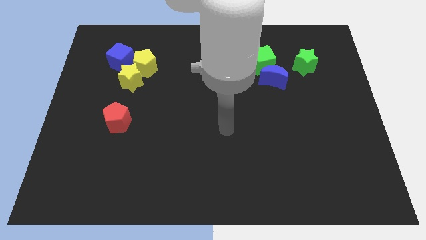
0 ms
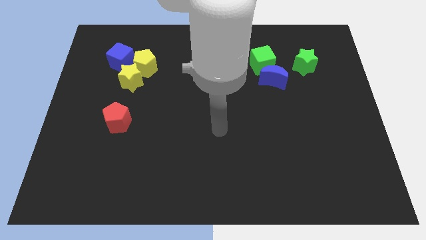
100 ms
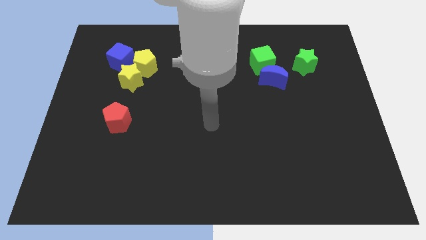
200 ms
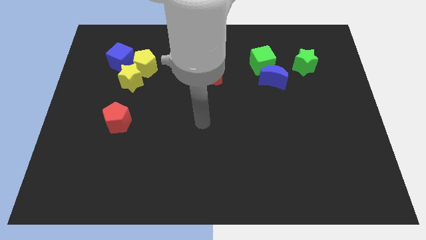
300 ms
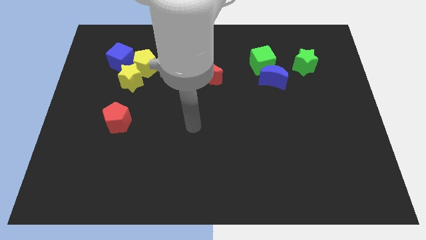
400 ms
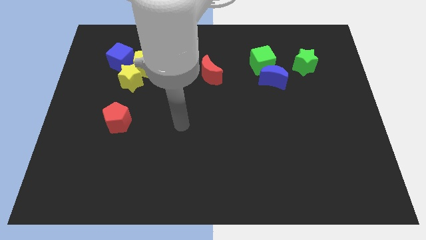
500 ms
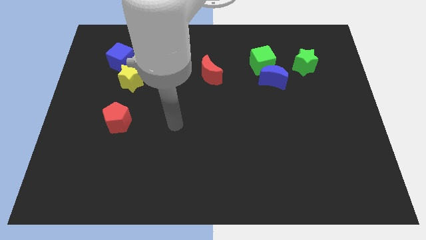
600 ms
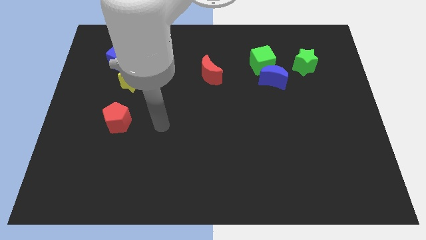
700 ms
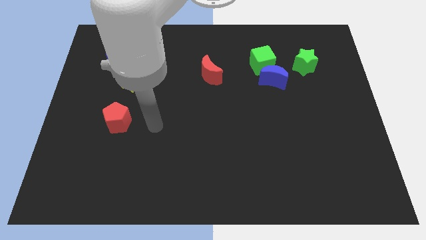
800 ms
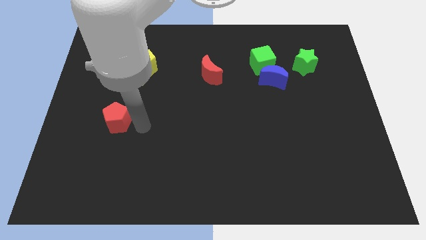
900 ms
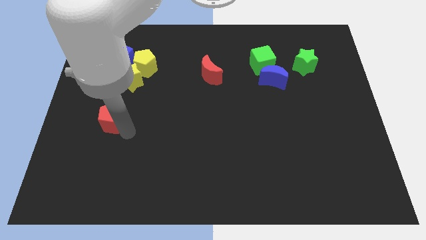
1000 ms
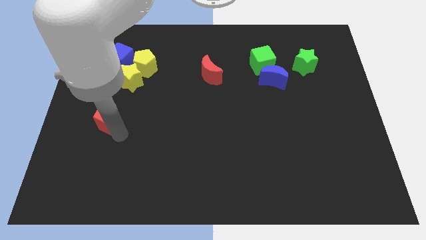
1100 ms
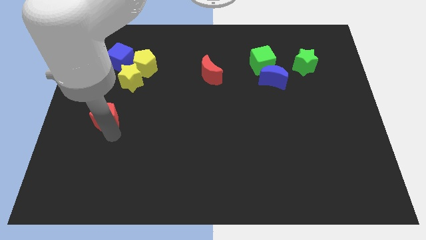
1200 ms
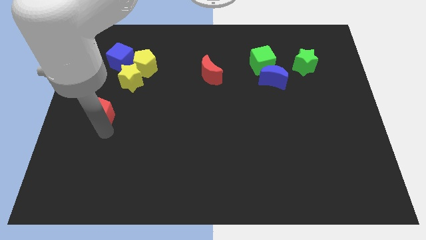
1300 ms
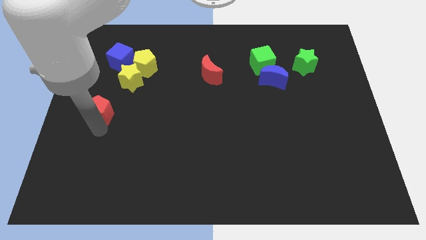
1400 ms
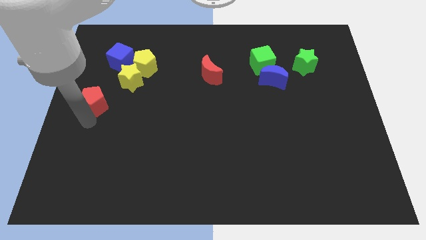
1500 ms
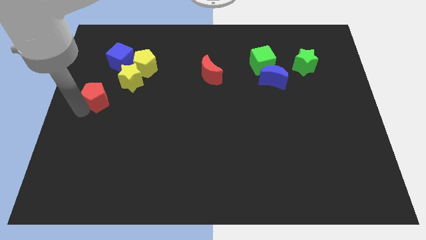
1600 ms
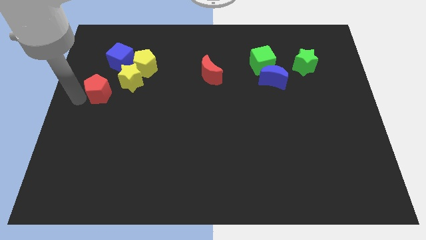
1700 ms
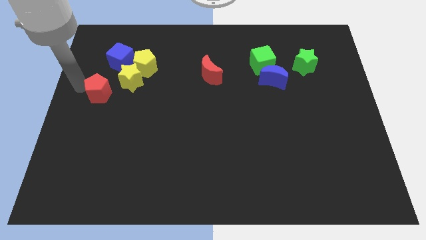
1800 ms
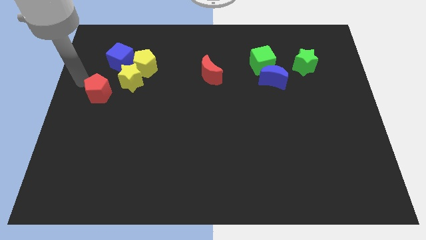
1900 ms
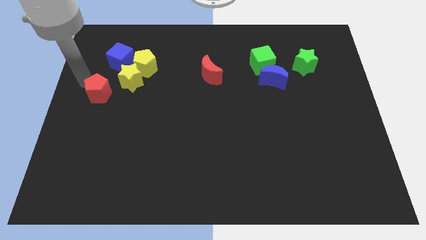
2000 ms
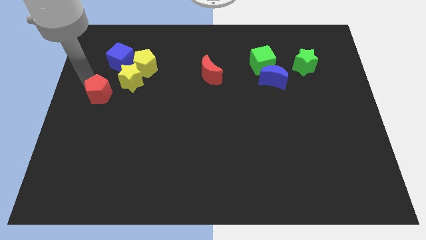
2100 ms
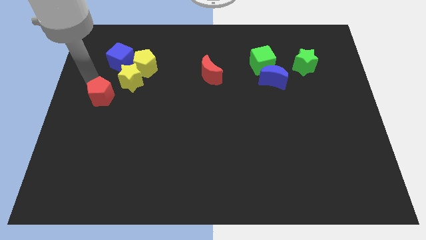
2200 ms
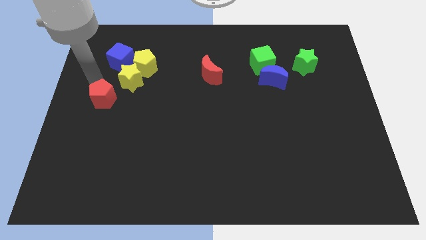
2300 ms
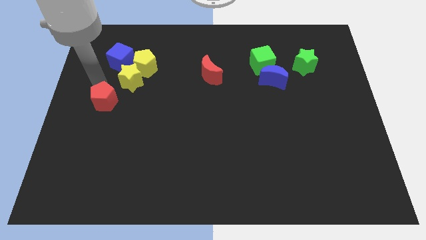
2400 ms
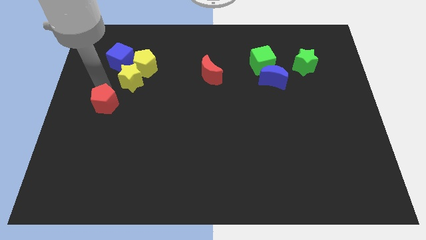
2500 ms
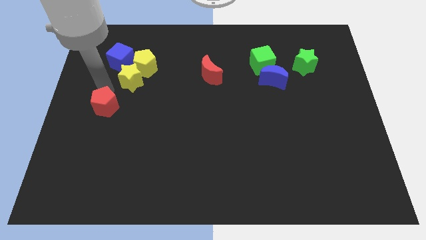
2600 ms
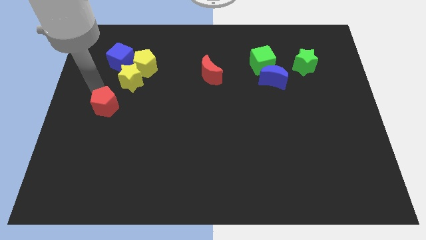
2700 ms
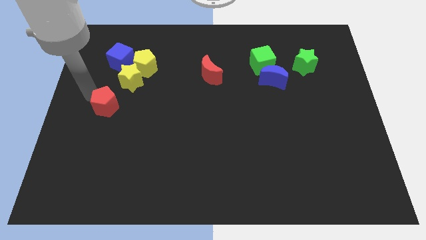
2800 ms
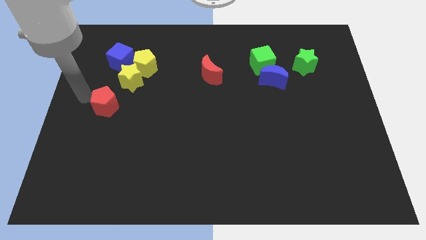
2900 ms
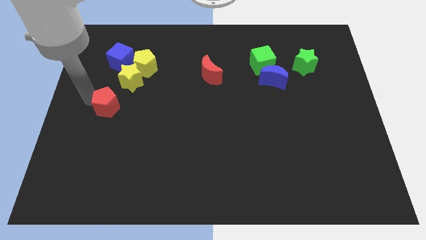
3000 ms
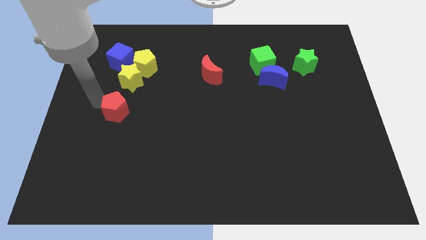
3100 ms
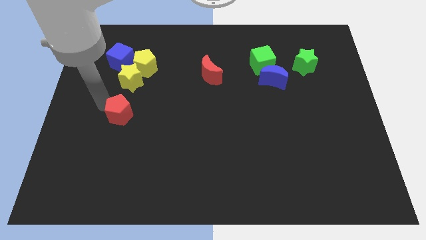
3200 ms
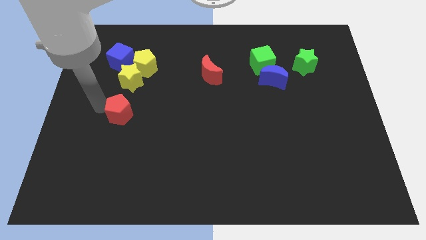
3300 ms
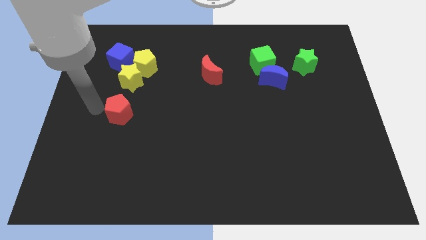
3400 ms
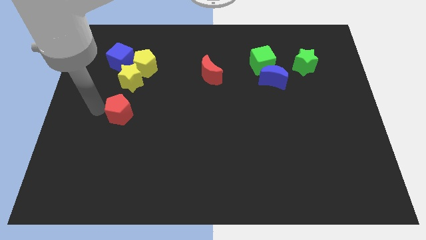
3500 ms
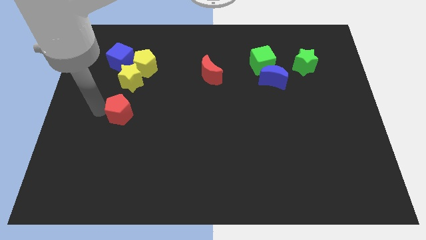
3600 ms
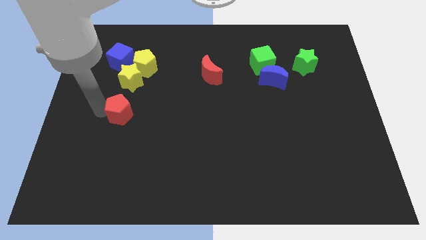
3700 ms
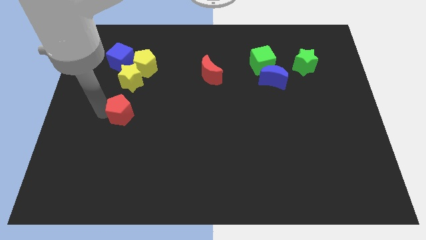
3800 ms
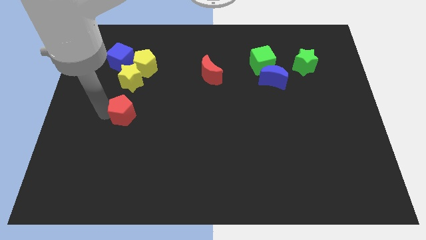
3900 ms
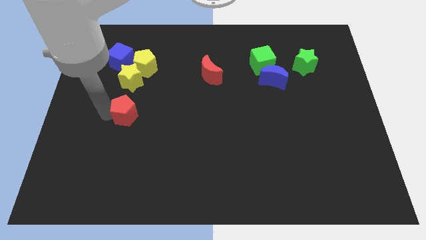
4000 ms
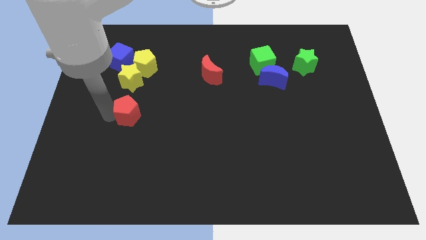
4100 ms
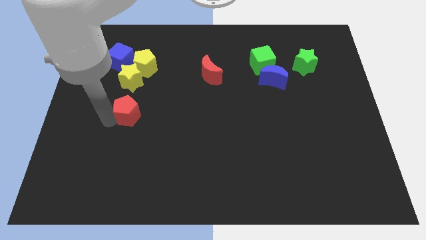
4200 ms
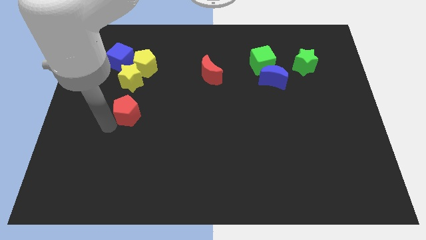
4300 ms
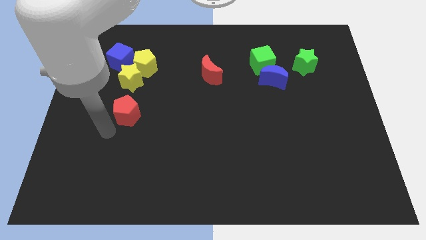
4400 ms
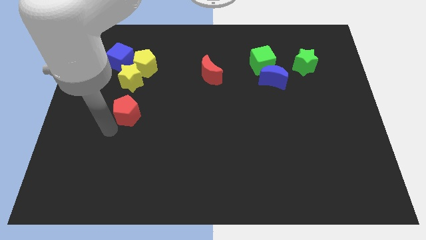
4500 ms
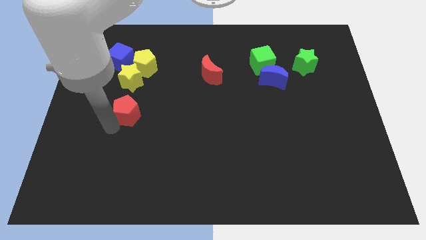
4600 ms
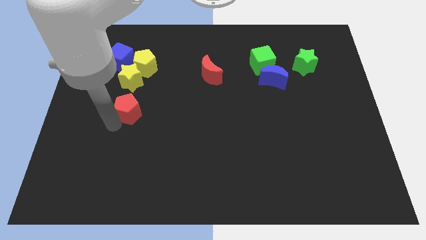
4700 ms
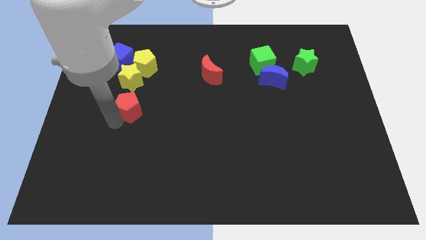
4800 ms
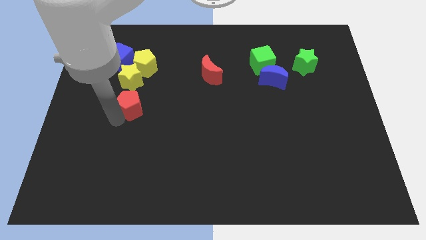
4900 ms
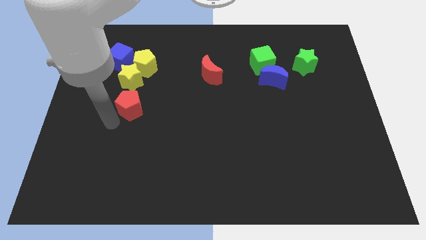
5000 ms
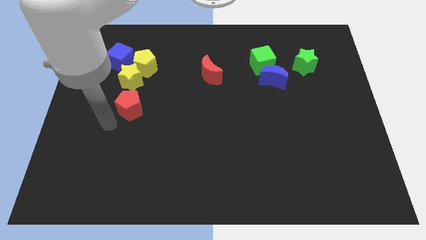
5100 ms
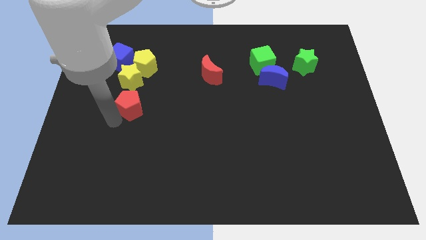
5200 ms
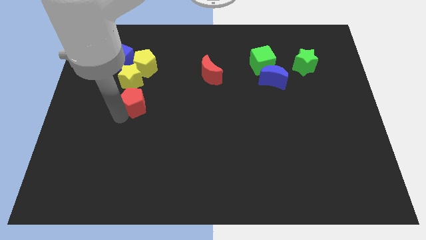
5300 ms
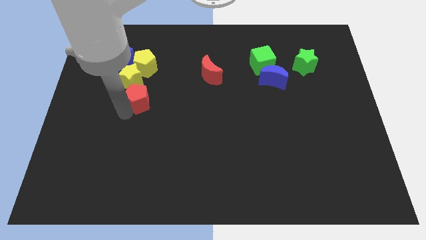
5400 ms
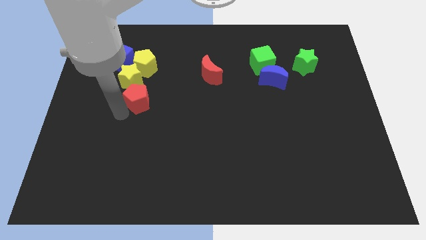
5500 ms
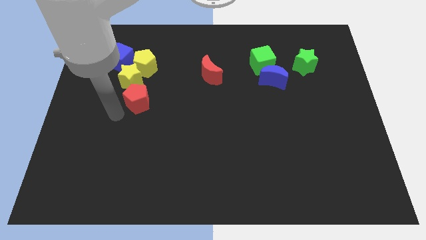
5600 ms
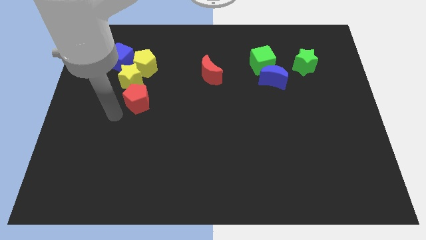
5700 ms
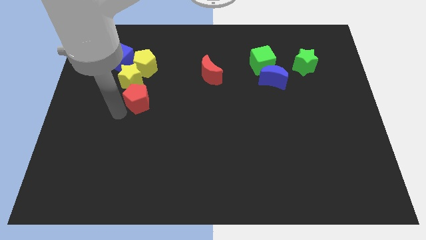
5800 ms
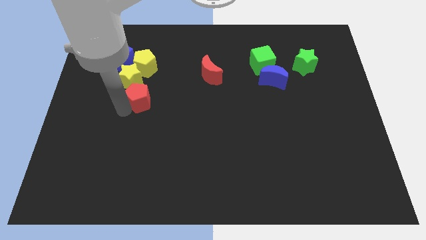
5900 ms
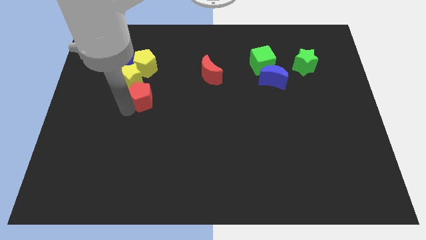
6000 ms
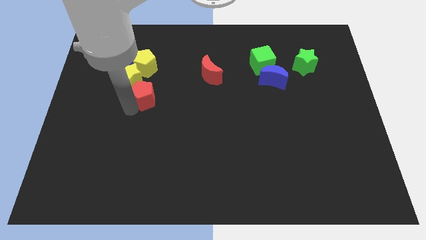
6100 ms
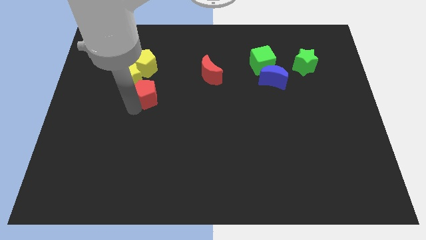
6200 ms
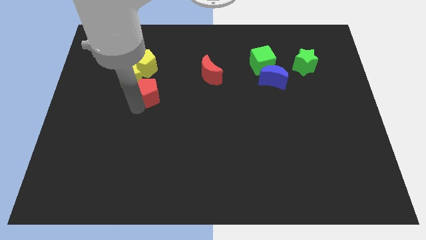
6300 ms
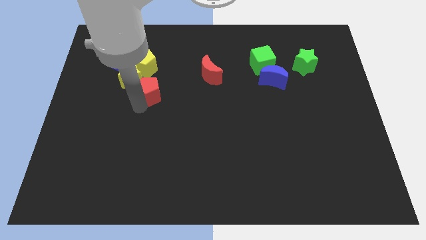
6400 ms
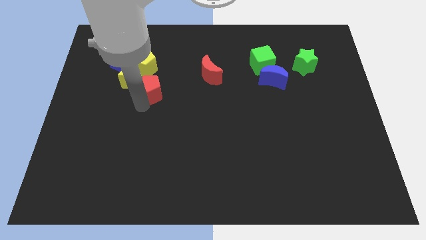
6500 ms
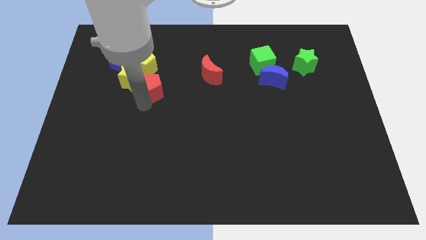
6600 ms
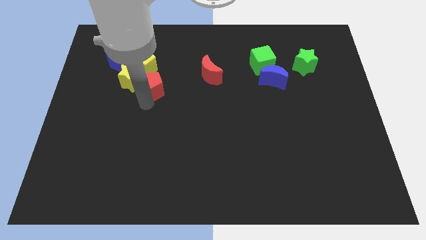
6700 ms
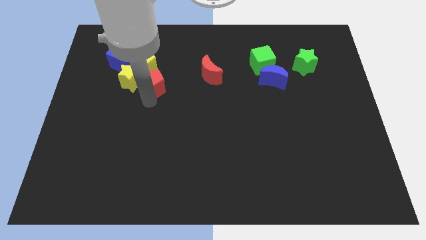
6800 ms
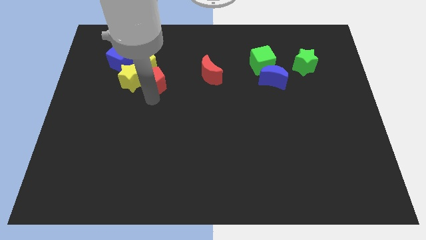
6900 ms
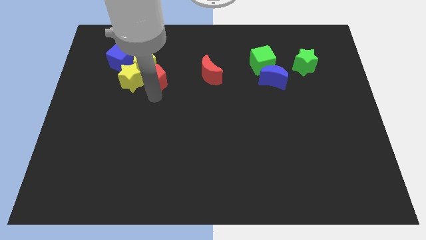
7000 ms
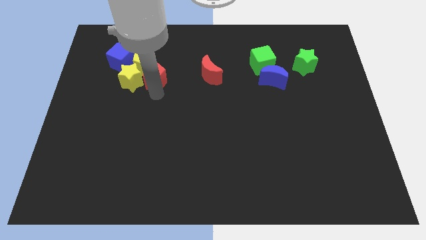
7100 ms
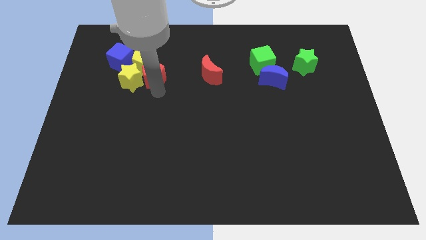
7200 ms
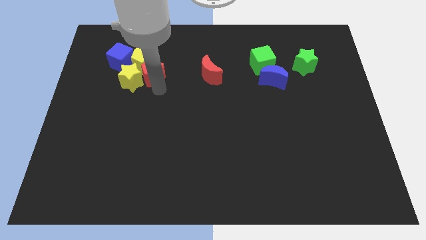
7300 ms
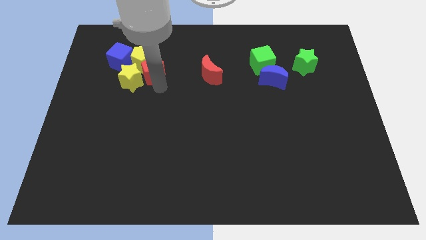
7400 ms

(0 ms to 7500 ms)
put the red pentagon right of the blue cube
